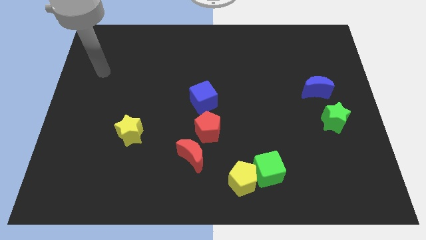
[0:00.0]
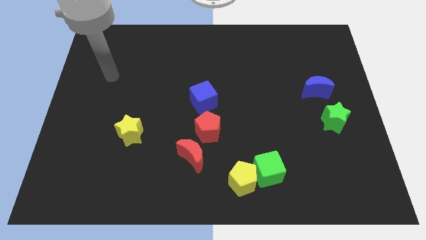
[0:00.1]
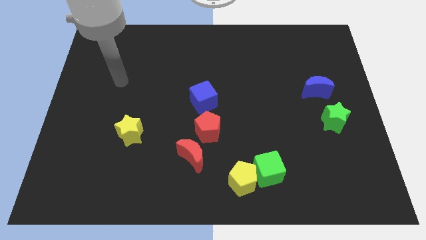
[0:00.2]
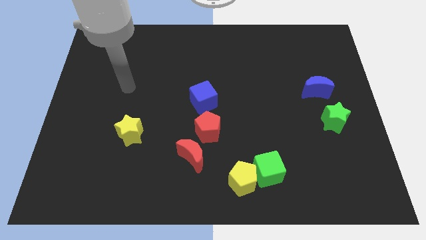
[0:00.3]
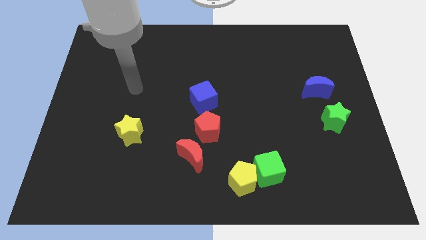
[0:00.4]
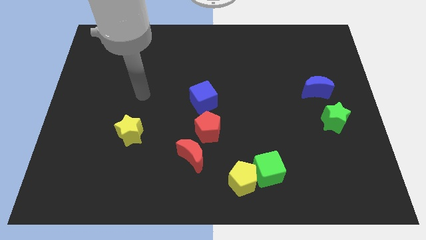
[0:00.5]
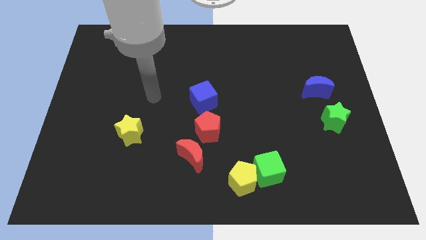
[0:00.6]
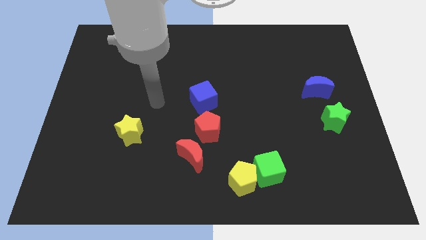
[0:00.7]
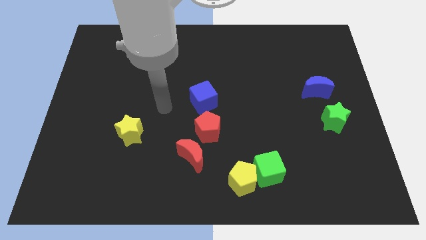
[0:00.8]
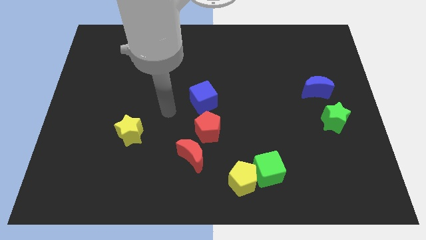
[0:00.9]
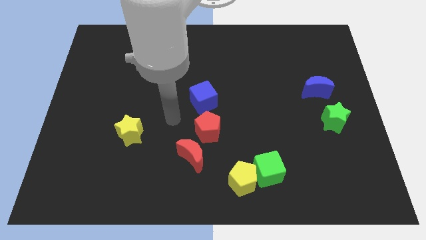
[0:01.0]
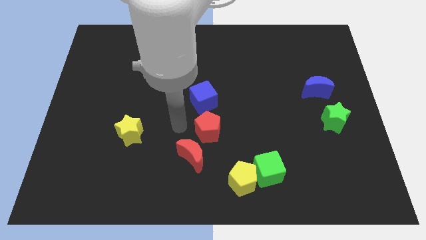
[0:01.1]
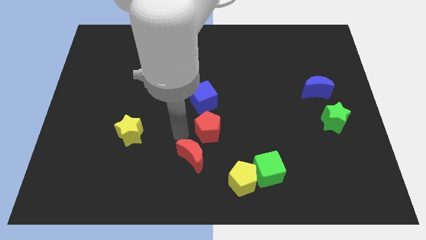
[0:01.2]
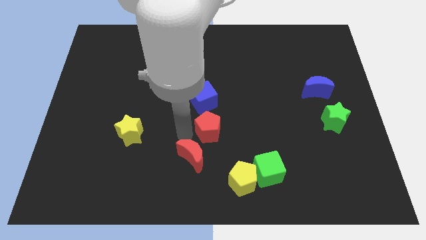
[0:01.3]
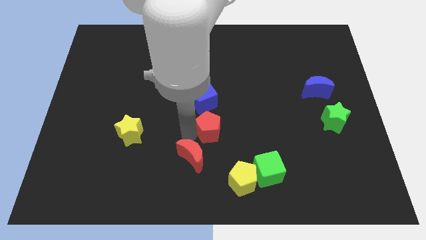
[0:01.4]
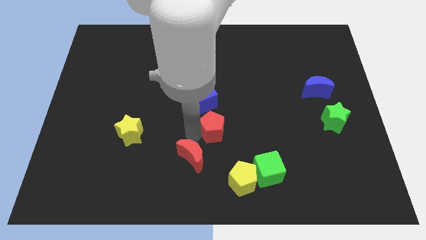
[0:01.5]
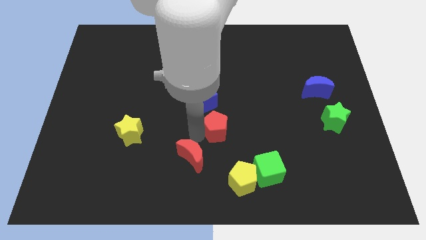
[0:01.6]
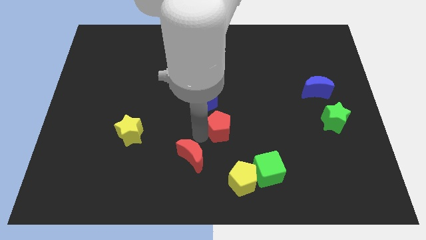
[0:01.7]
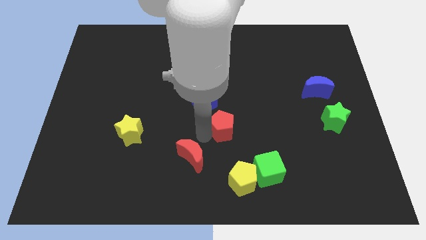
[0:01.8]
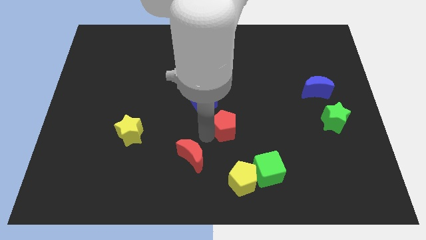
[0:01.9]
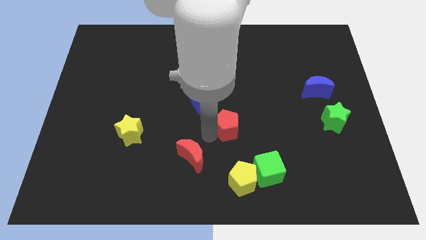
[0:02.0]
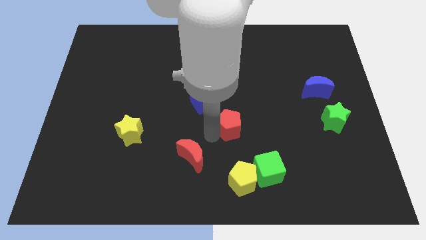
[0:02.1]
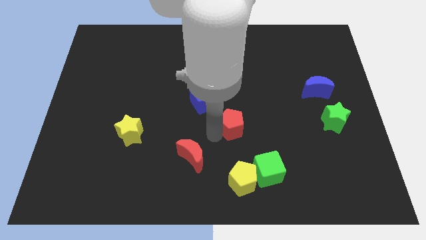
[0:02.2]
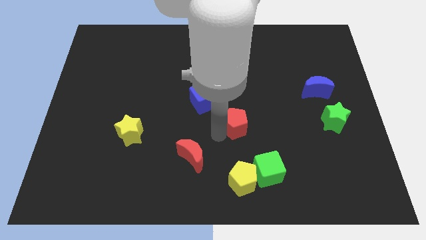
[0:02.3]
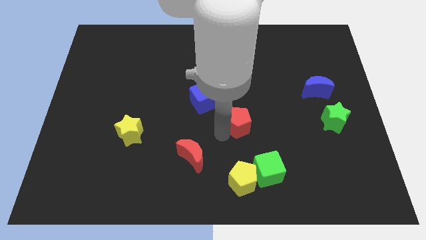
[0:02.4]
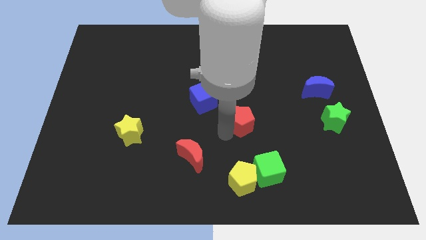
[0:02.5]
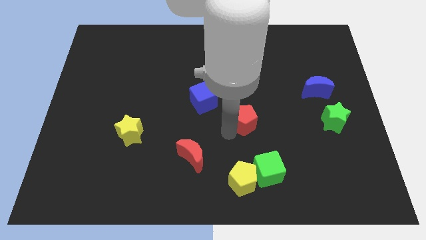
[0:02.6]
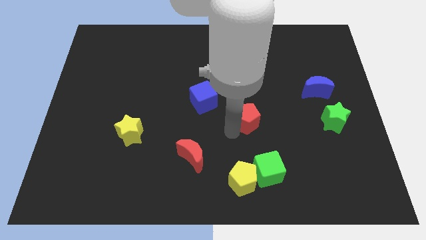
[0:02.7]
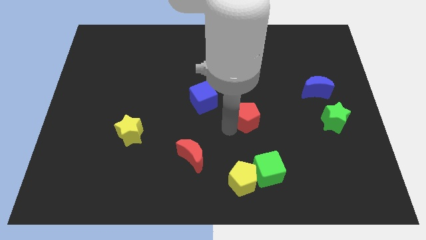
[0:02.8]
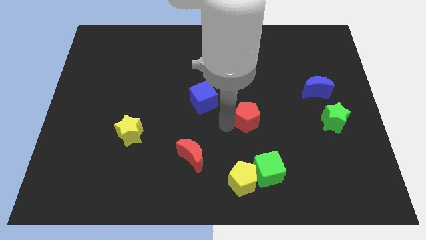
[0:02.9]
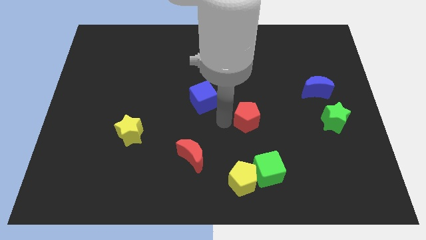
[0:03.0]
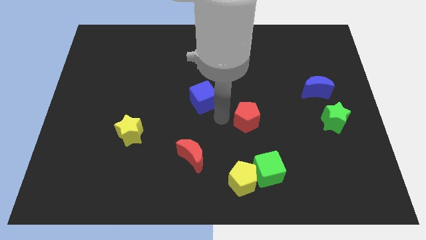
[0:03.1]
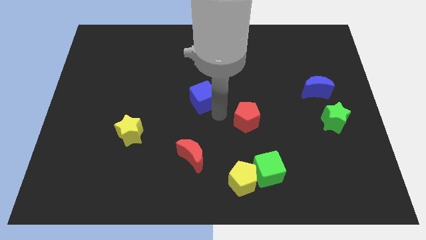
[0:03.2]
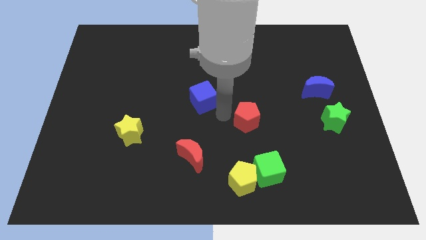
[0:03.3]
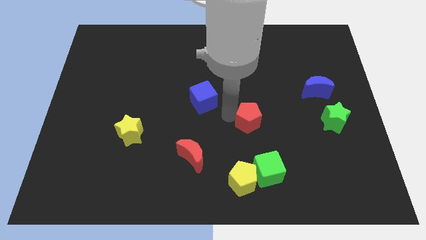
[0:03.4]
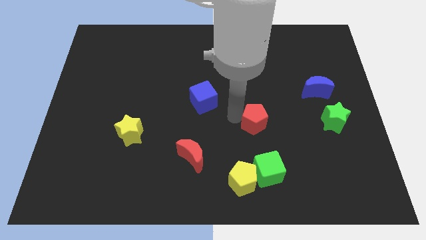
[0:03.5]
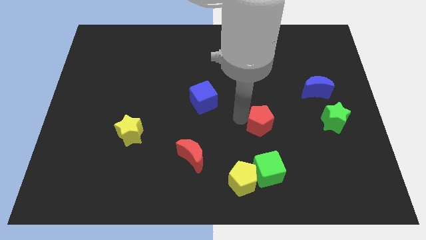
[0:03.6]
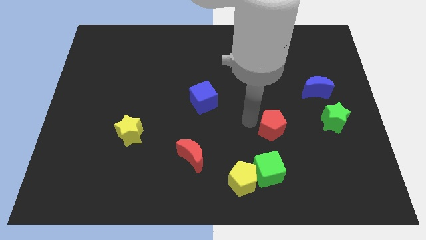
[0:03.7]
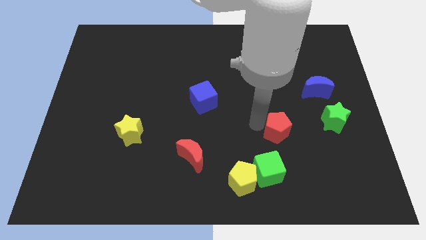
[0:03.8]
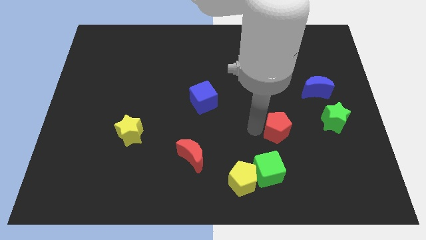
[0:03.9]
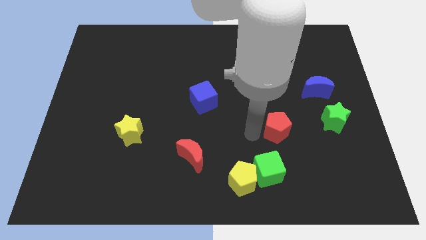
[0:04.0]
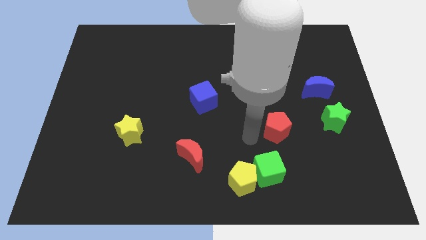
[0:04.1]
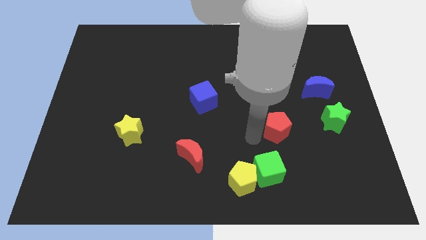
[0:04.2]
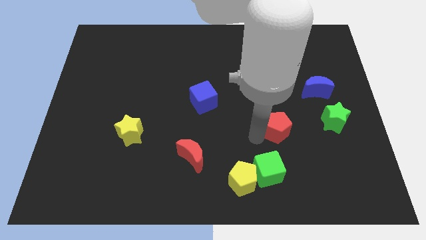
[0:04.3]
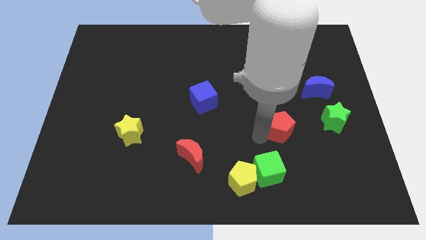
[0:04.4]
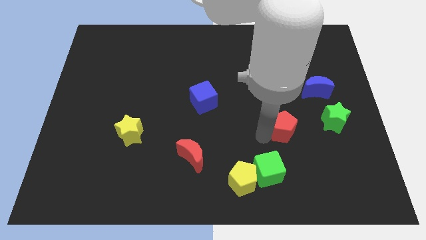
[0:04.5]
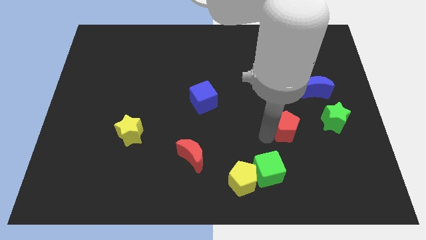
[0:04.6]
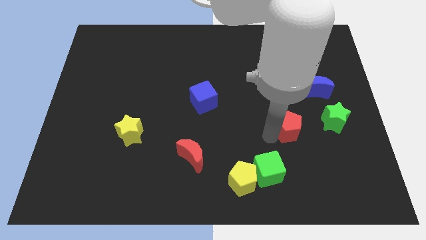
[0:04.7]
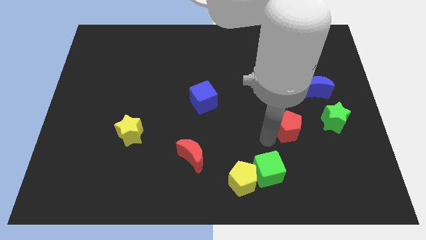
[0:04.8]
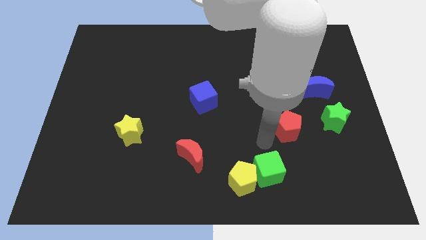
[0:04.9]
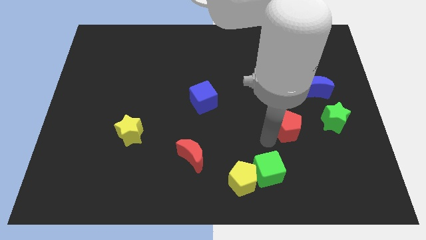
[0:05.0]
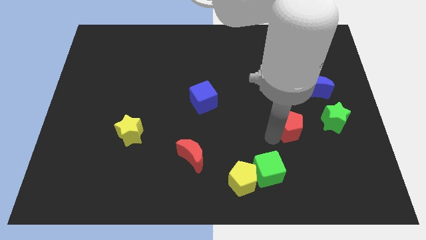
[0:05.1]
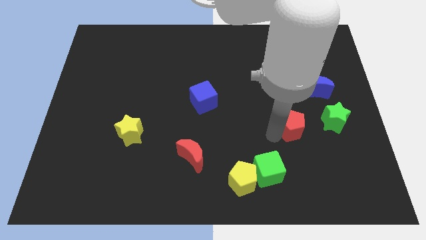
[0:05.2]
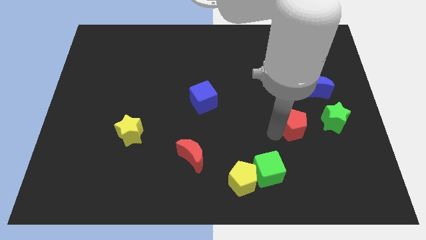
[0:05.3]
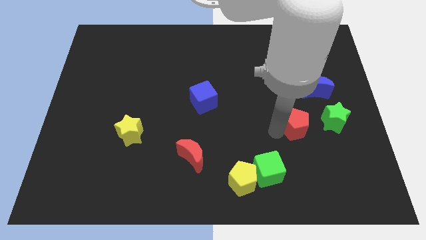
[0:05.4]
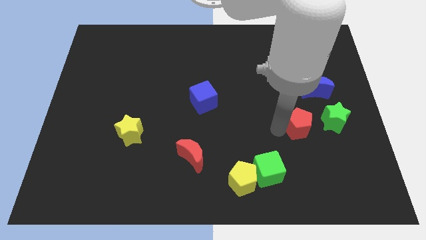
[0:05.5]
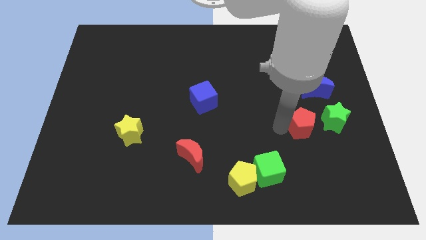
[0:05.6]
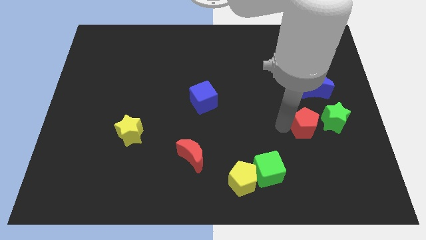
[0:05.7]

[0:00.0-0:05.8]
put the red pentagon to the bottom side of the blue moon
